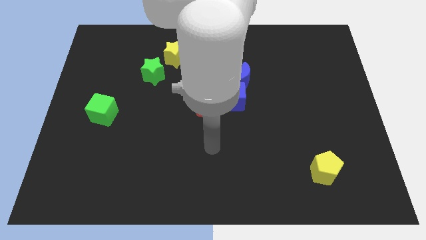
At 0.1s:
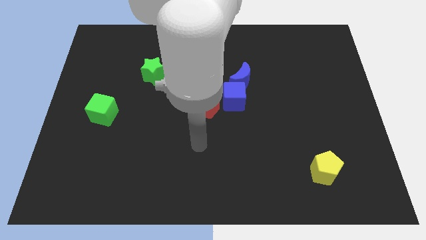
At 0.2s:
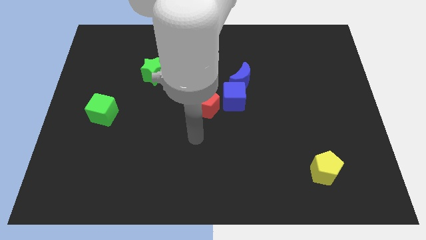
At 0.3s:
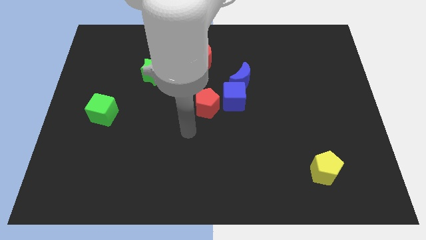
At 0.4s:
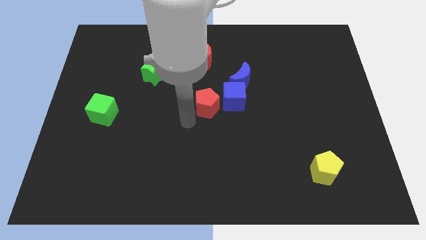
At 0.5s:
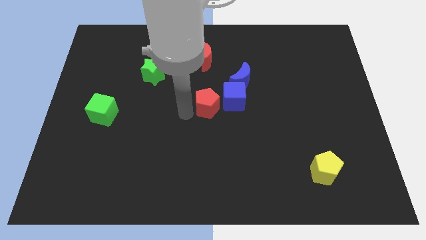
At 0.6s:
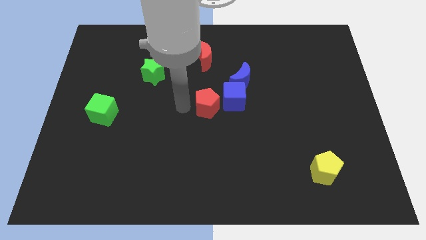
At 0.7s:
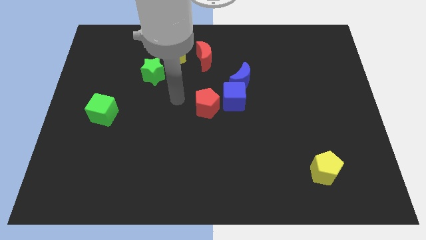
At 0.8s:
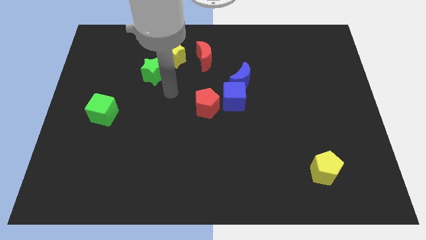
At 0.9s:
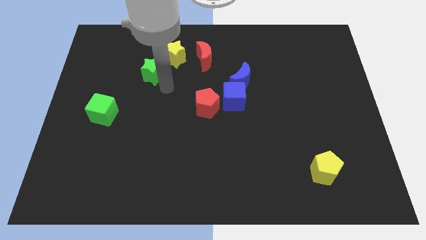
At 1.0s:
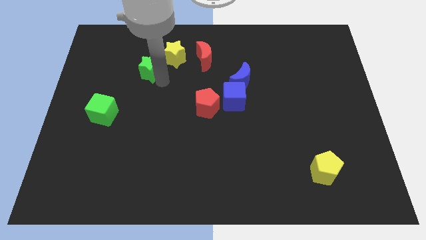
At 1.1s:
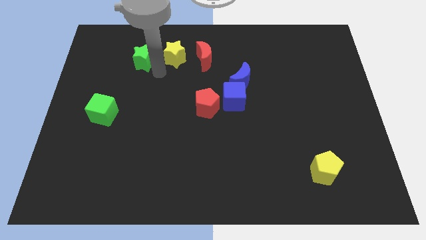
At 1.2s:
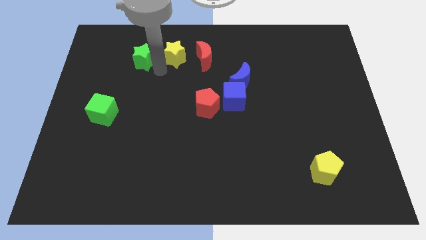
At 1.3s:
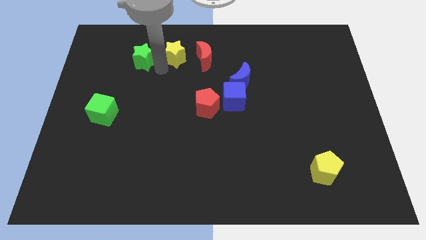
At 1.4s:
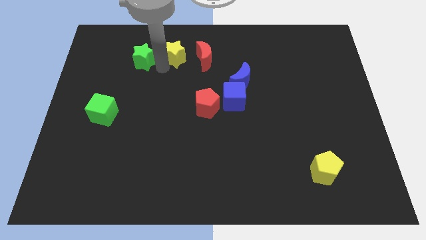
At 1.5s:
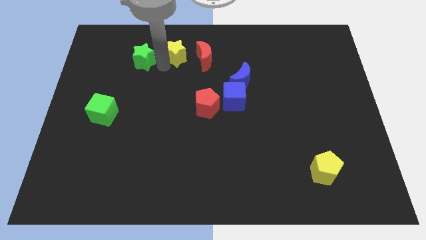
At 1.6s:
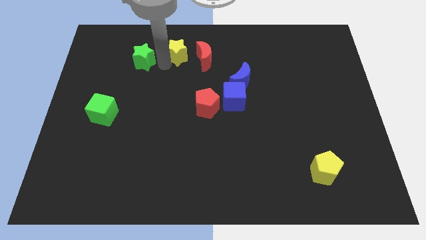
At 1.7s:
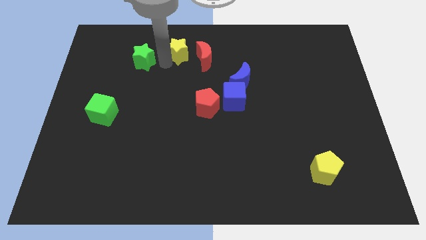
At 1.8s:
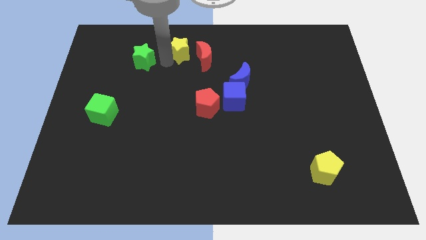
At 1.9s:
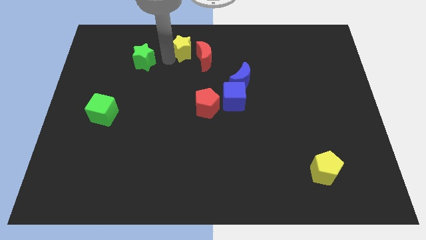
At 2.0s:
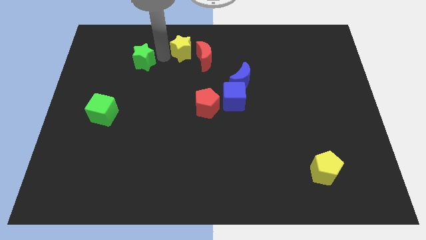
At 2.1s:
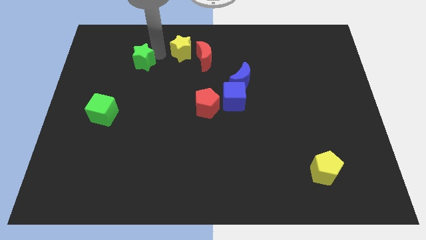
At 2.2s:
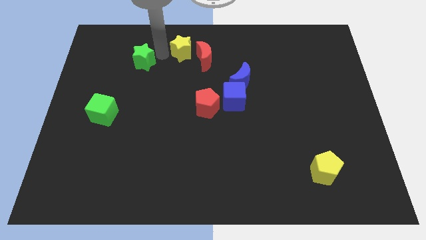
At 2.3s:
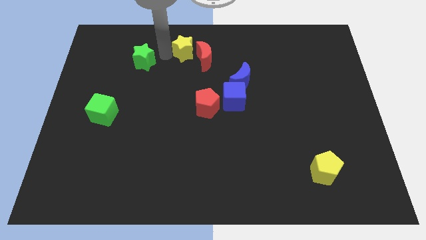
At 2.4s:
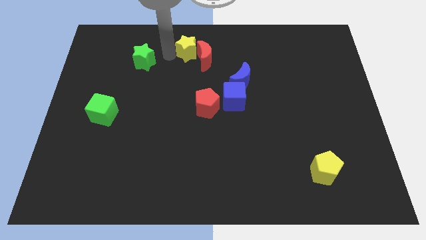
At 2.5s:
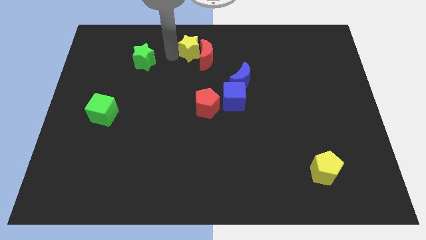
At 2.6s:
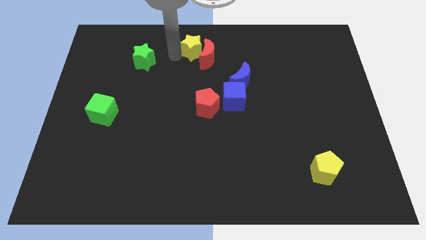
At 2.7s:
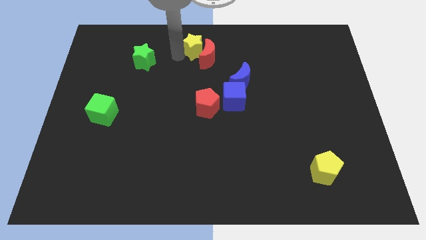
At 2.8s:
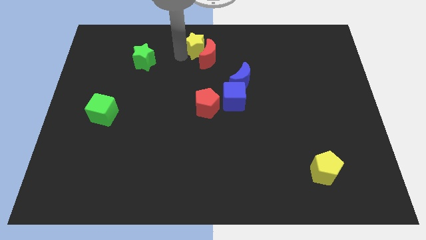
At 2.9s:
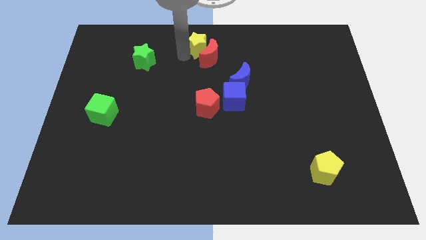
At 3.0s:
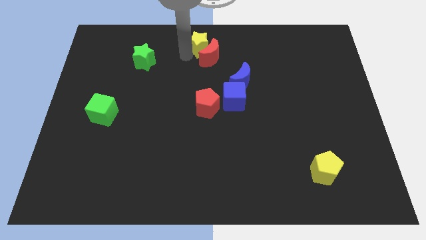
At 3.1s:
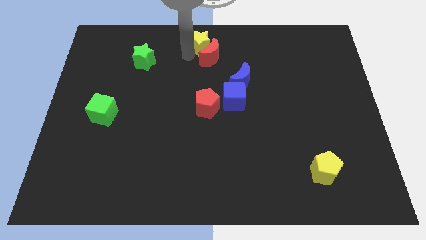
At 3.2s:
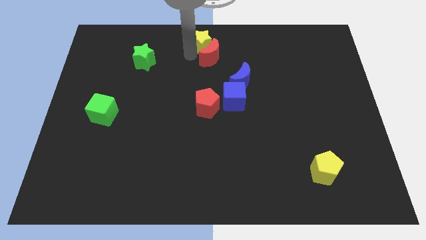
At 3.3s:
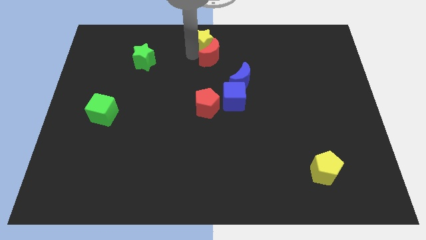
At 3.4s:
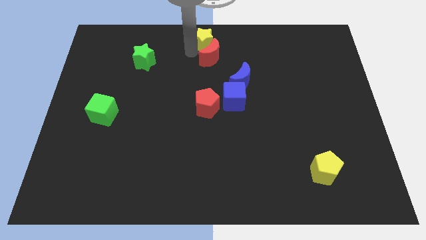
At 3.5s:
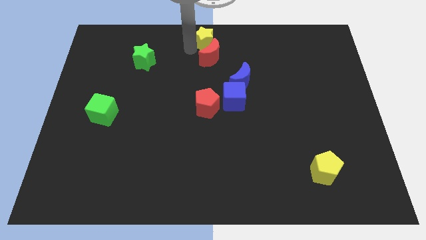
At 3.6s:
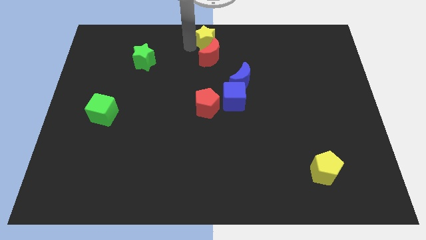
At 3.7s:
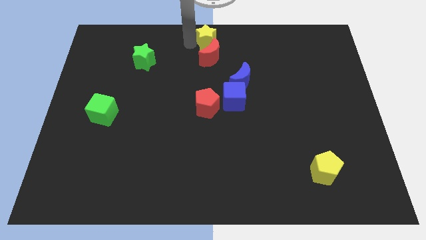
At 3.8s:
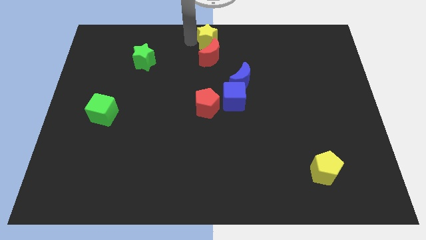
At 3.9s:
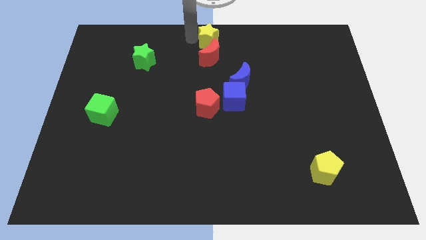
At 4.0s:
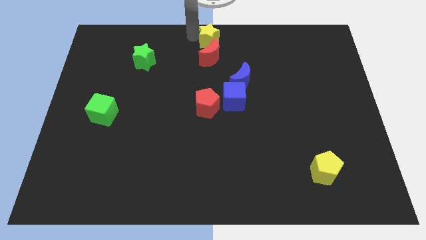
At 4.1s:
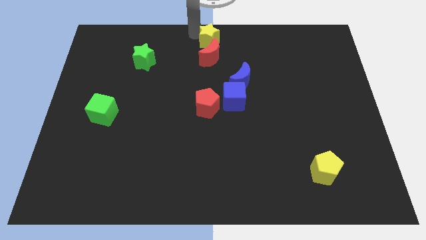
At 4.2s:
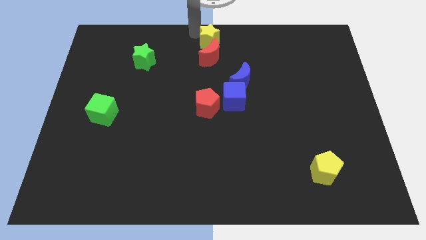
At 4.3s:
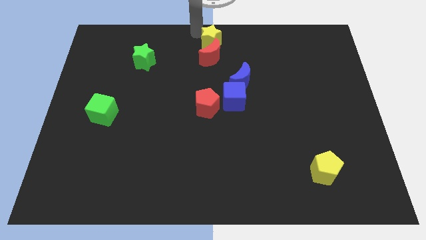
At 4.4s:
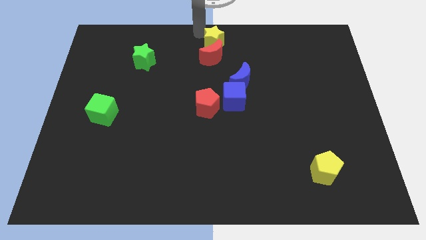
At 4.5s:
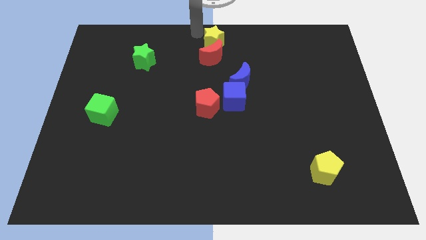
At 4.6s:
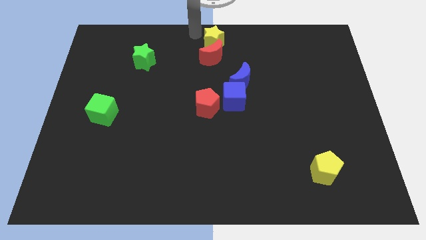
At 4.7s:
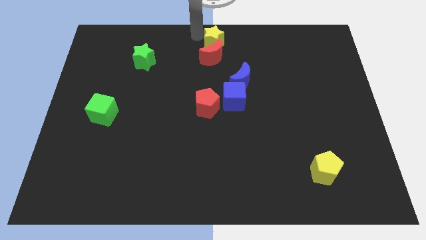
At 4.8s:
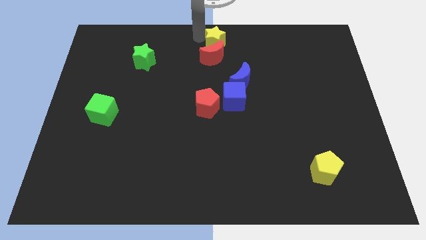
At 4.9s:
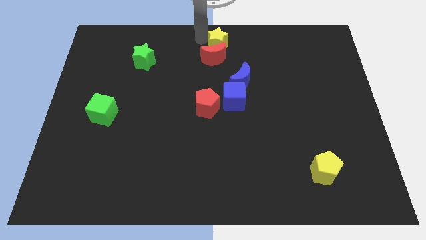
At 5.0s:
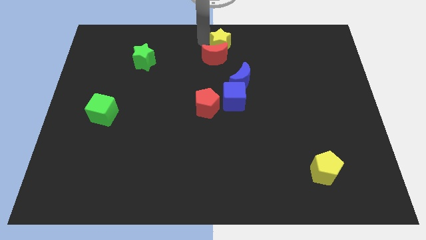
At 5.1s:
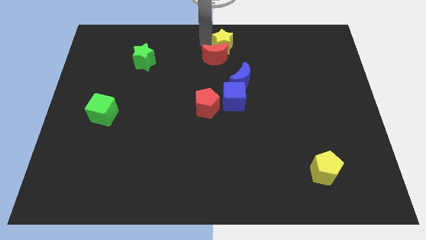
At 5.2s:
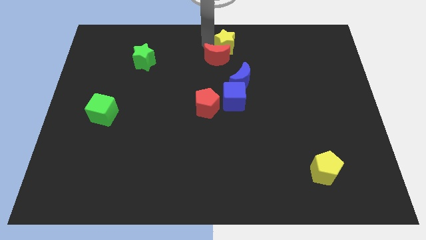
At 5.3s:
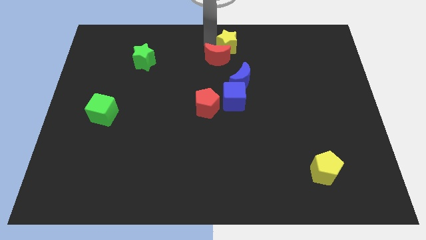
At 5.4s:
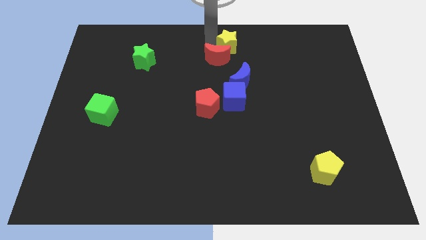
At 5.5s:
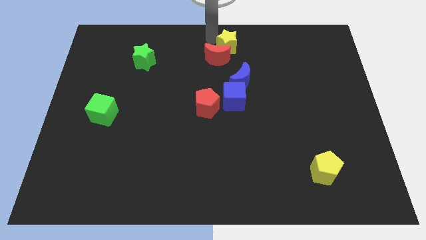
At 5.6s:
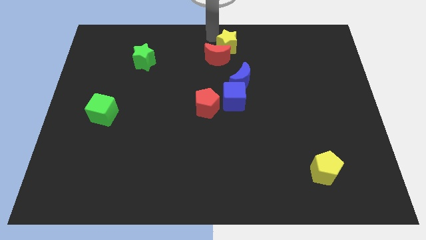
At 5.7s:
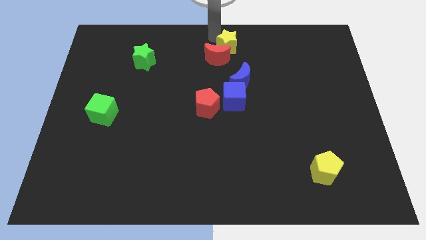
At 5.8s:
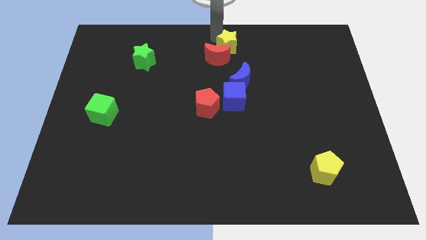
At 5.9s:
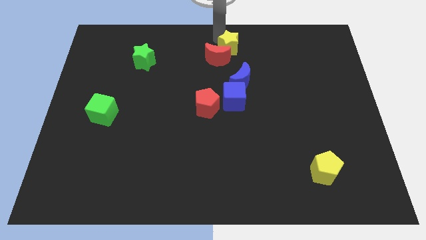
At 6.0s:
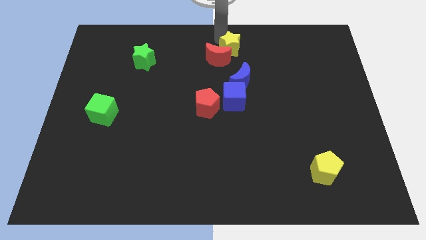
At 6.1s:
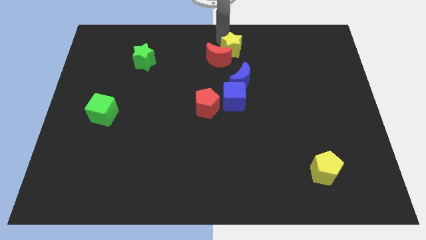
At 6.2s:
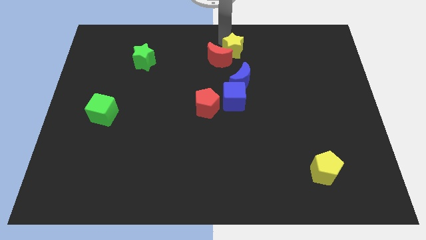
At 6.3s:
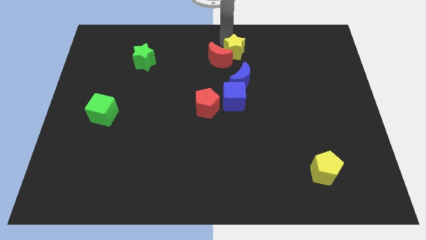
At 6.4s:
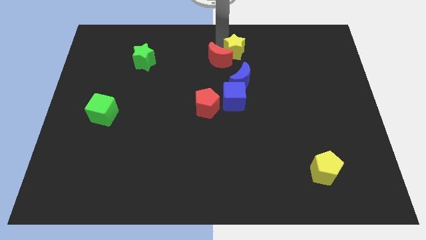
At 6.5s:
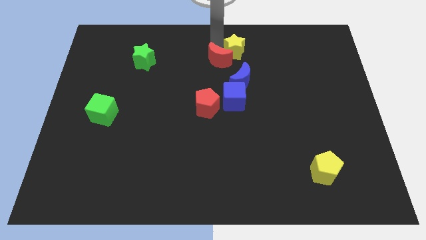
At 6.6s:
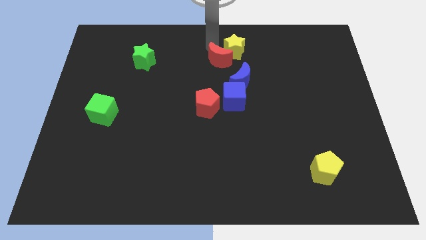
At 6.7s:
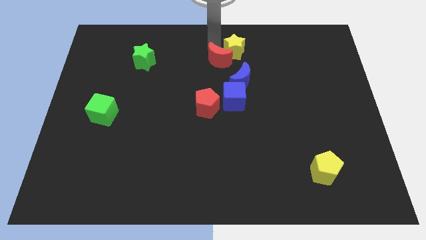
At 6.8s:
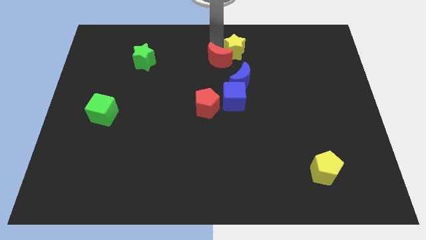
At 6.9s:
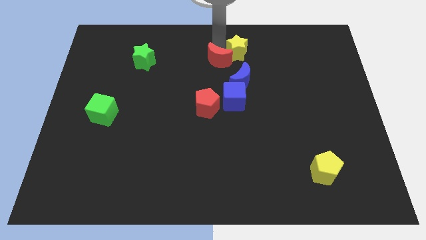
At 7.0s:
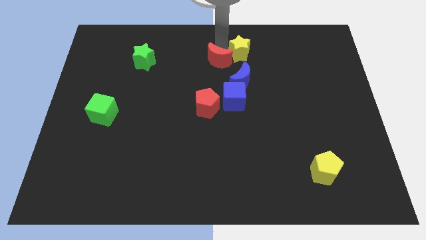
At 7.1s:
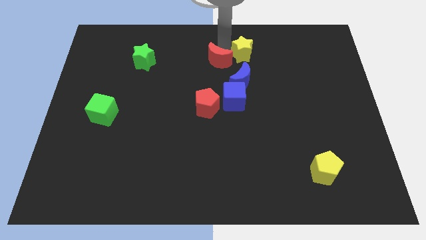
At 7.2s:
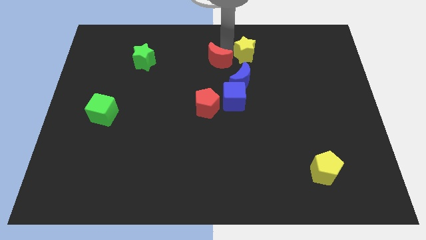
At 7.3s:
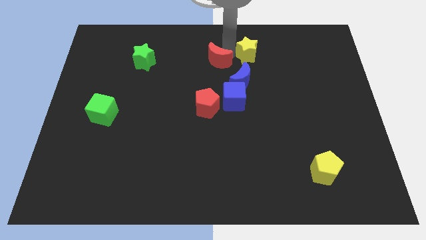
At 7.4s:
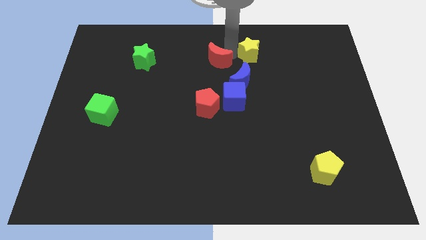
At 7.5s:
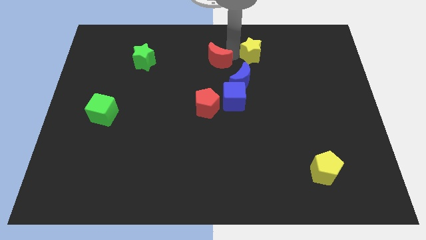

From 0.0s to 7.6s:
move the yellow star to the right

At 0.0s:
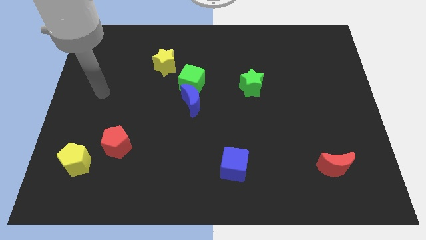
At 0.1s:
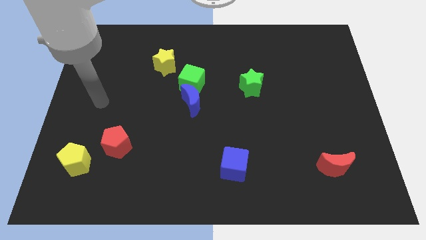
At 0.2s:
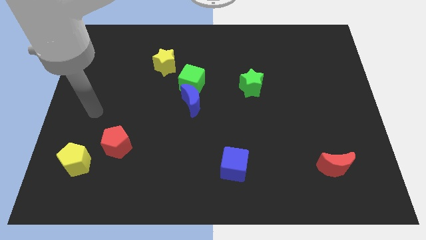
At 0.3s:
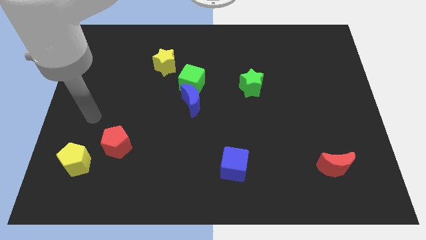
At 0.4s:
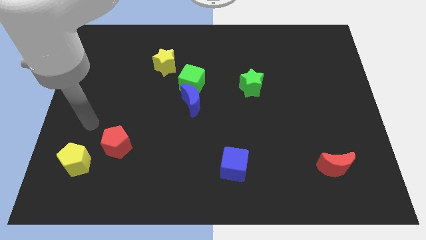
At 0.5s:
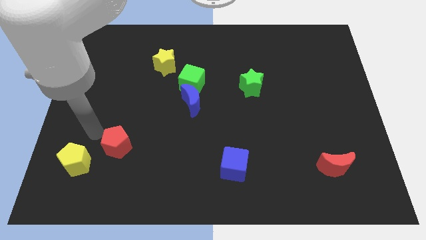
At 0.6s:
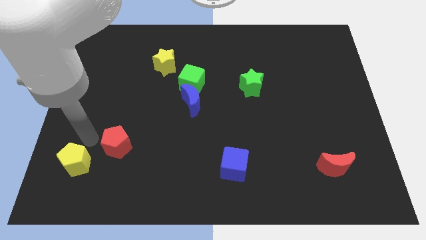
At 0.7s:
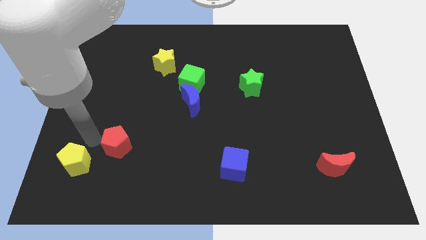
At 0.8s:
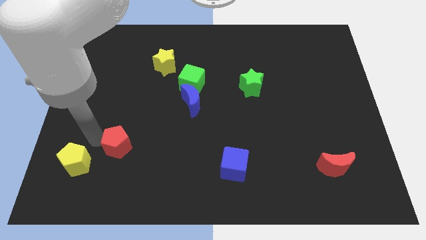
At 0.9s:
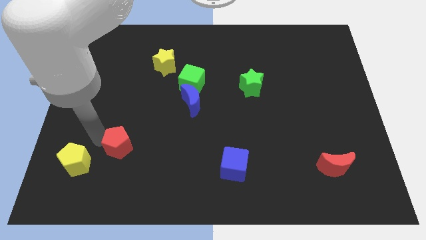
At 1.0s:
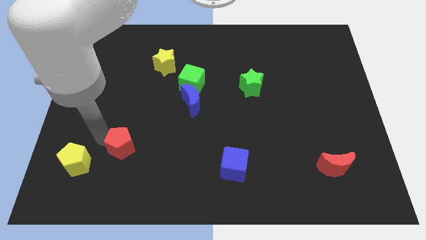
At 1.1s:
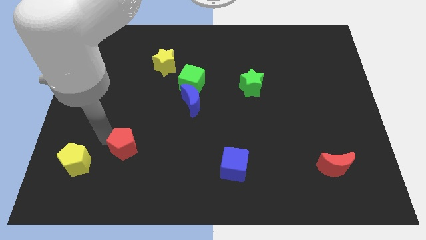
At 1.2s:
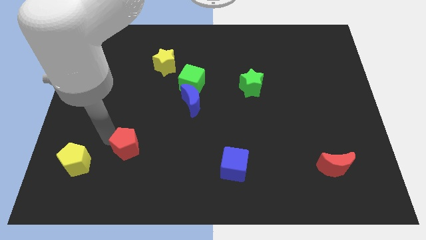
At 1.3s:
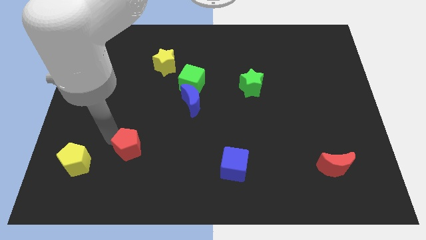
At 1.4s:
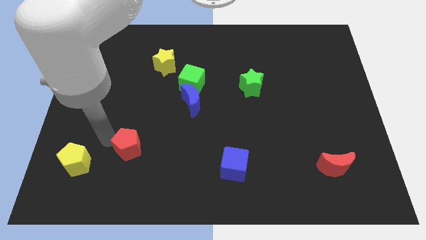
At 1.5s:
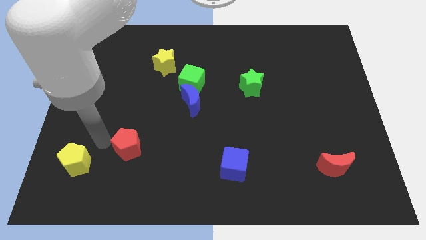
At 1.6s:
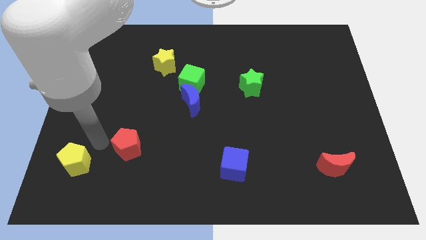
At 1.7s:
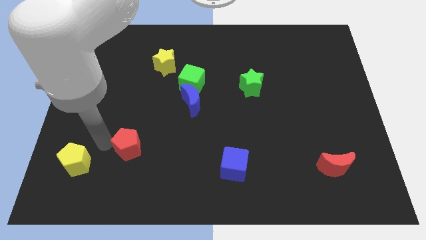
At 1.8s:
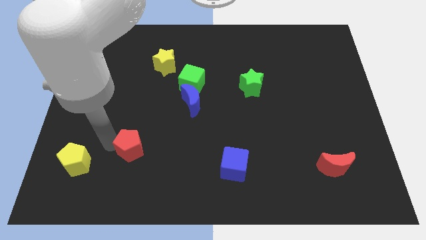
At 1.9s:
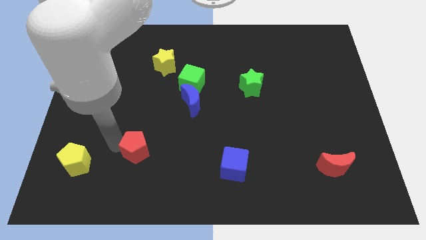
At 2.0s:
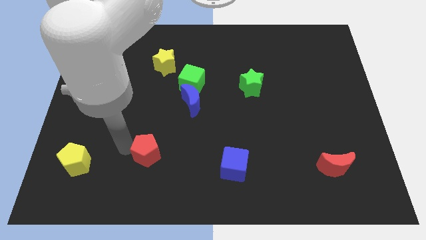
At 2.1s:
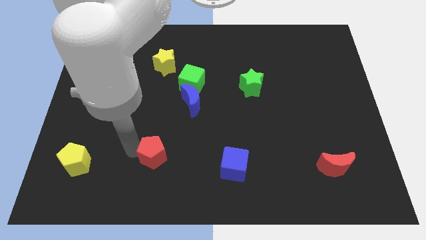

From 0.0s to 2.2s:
slightly move the red pentagon to the right
